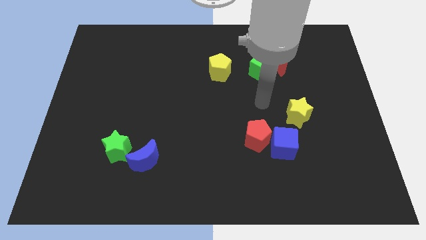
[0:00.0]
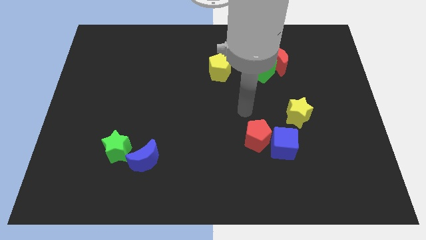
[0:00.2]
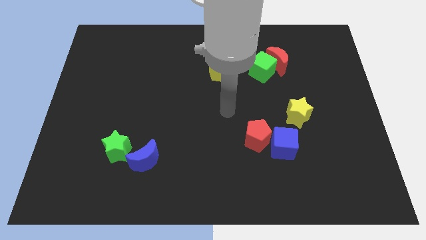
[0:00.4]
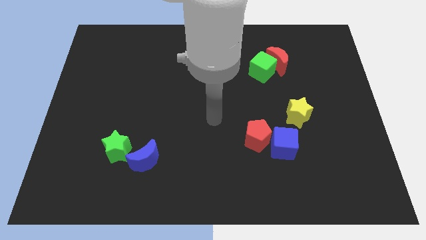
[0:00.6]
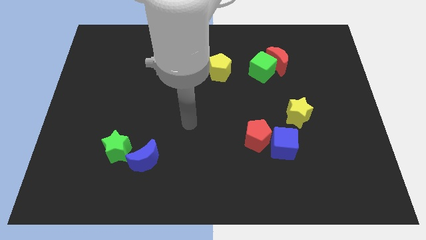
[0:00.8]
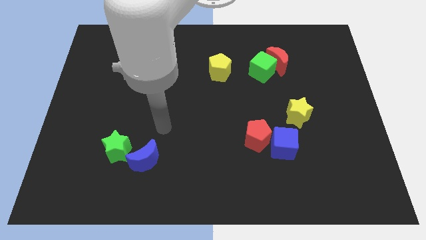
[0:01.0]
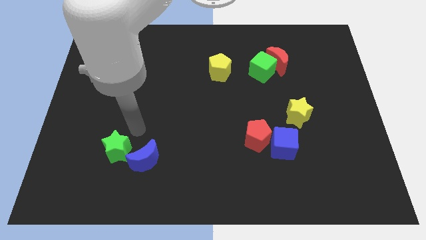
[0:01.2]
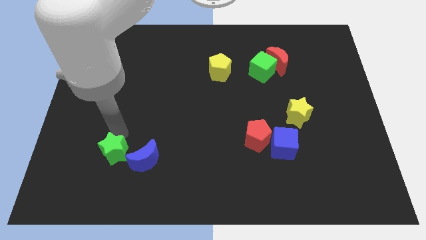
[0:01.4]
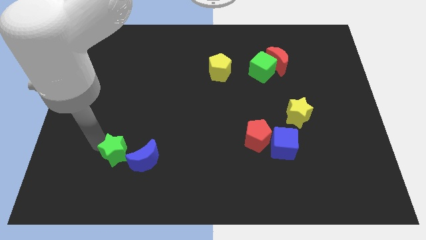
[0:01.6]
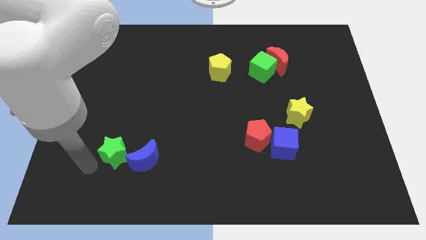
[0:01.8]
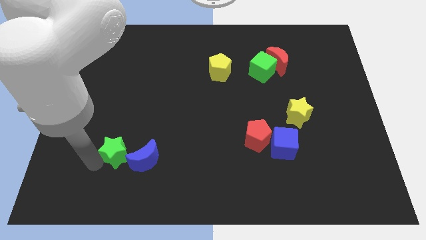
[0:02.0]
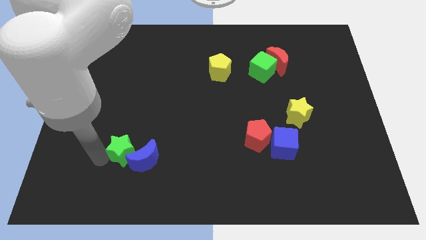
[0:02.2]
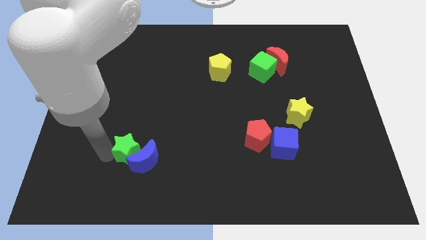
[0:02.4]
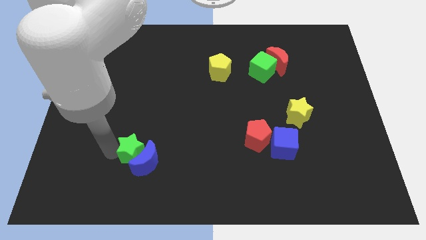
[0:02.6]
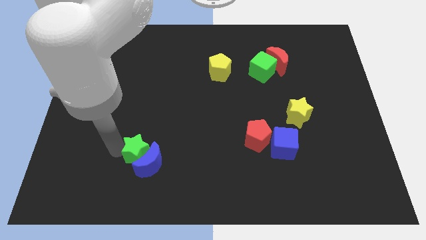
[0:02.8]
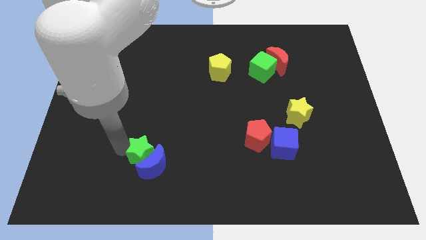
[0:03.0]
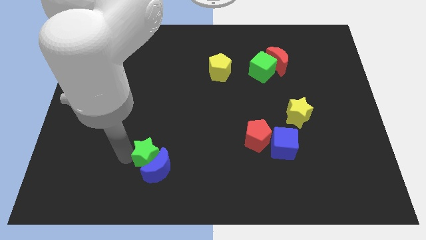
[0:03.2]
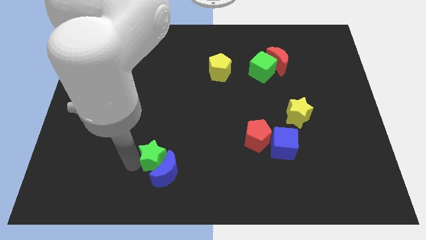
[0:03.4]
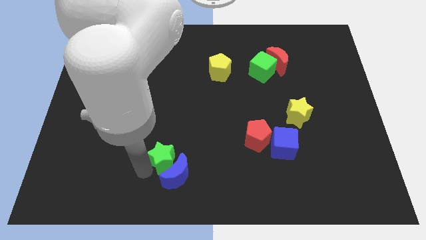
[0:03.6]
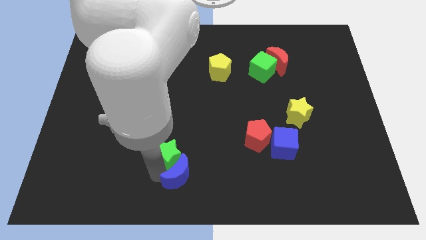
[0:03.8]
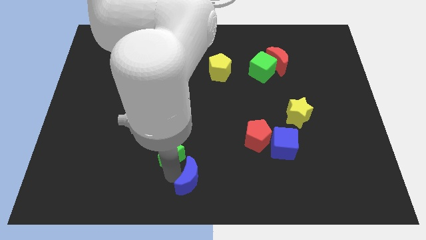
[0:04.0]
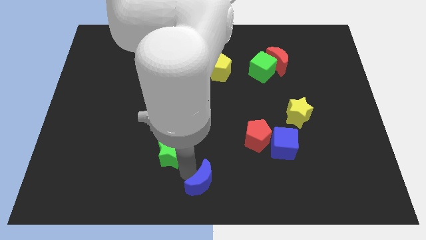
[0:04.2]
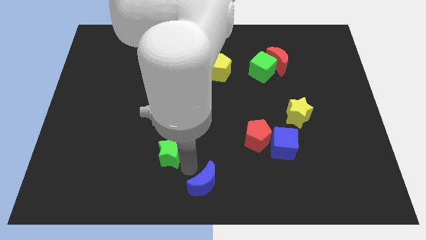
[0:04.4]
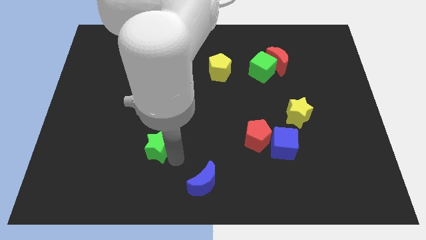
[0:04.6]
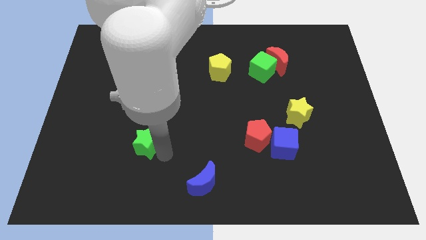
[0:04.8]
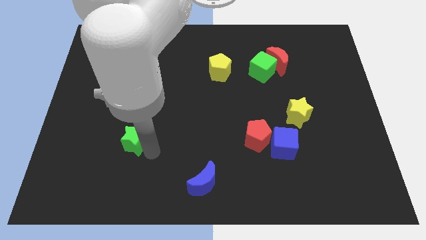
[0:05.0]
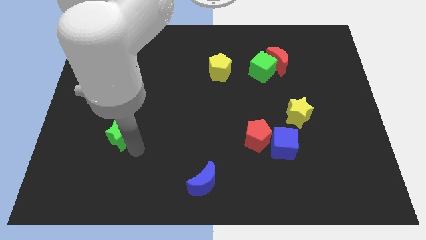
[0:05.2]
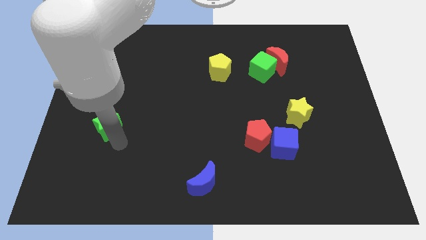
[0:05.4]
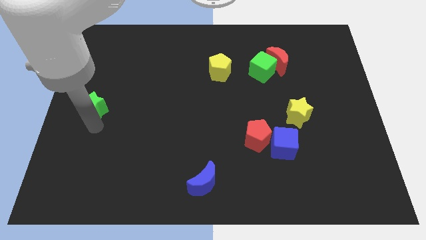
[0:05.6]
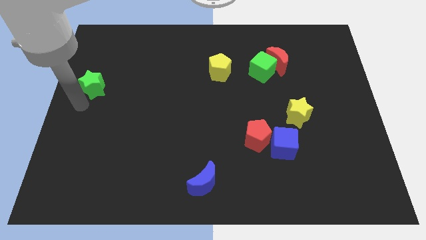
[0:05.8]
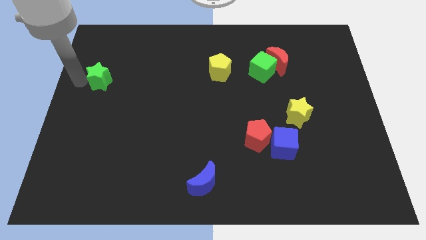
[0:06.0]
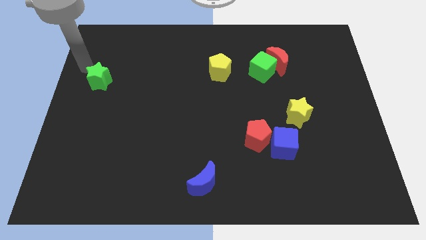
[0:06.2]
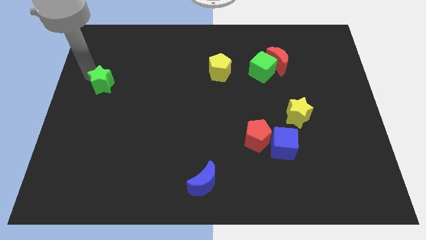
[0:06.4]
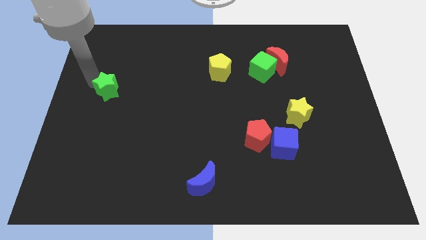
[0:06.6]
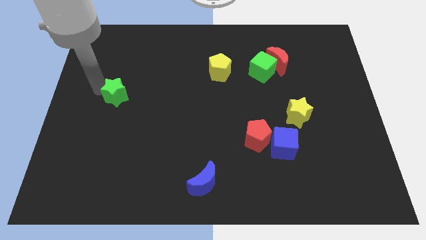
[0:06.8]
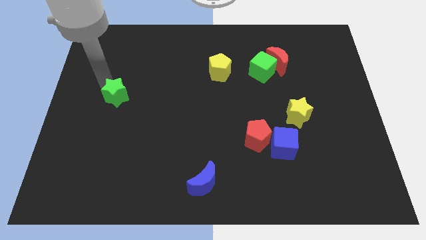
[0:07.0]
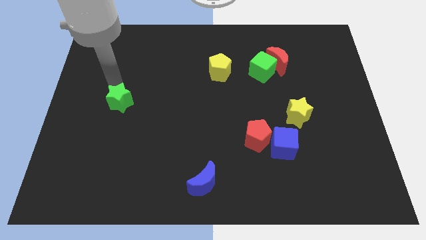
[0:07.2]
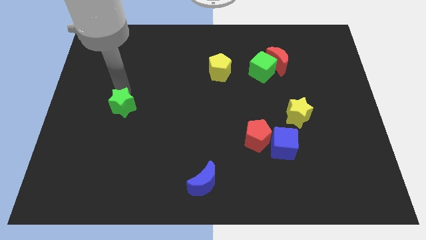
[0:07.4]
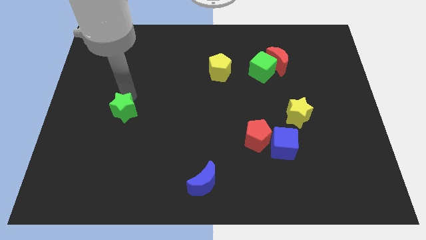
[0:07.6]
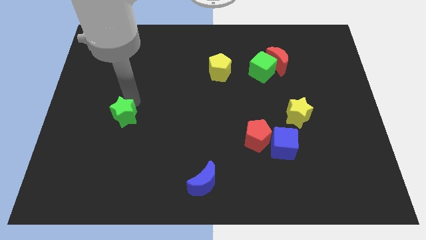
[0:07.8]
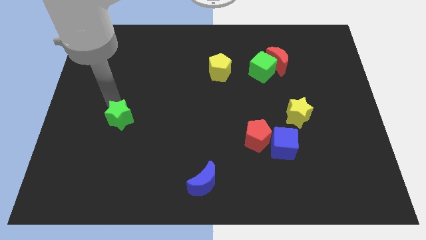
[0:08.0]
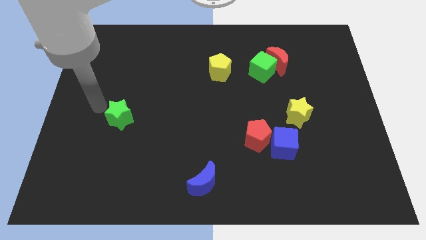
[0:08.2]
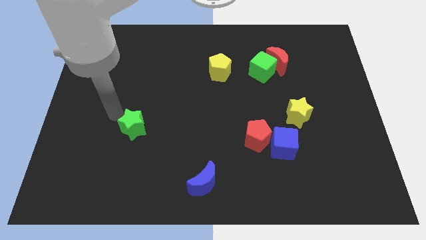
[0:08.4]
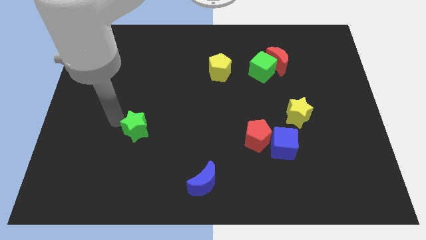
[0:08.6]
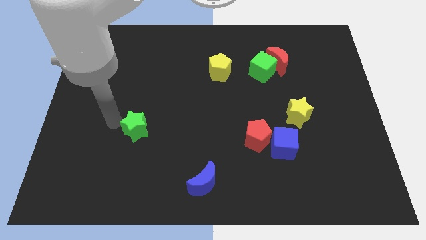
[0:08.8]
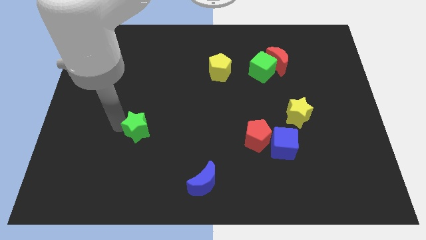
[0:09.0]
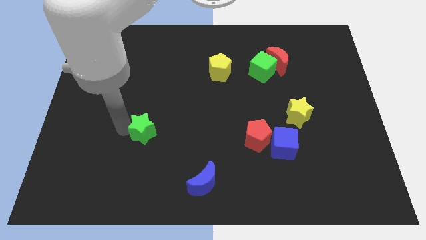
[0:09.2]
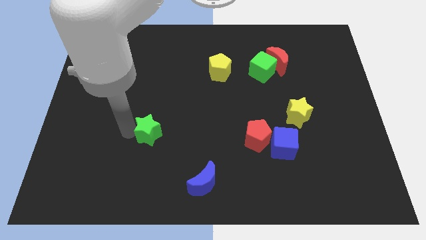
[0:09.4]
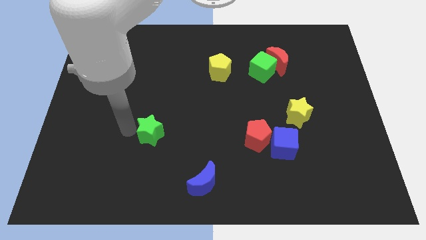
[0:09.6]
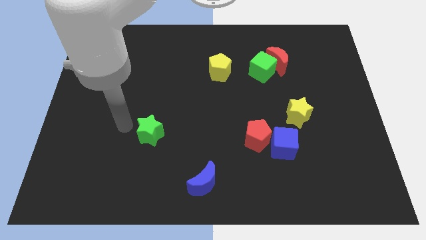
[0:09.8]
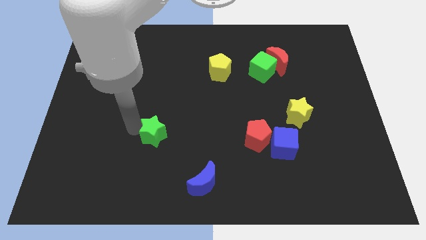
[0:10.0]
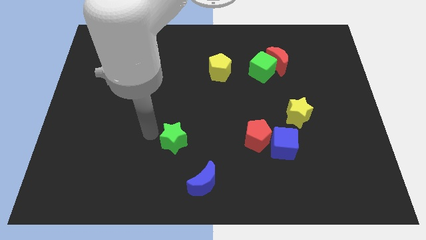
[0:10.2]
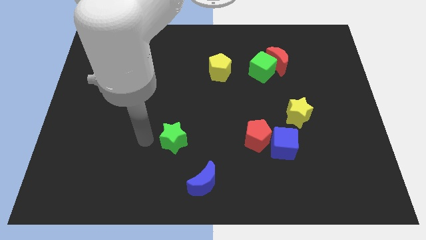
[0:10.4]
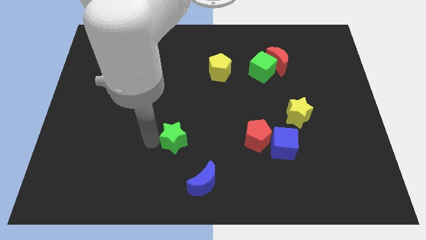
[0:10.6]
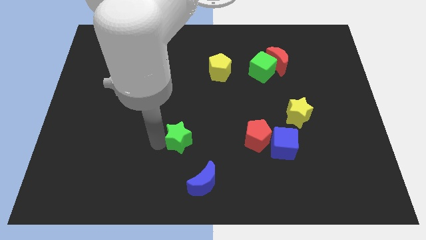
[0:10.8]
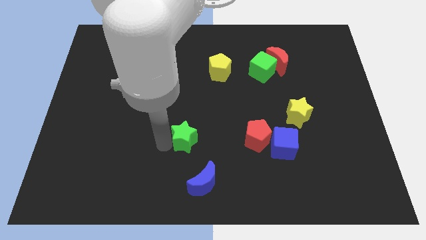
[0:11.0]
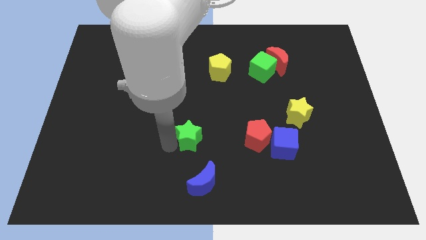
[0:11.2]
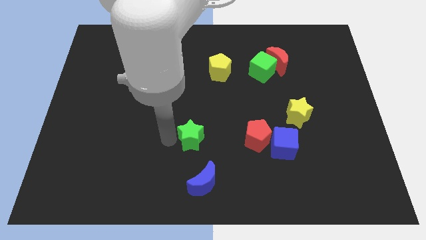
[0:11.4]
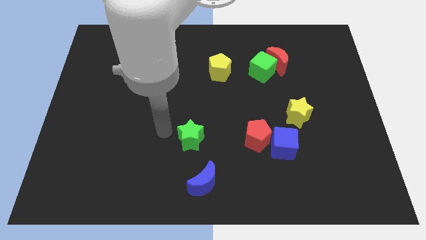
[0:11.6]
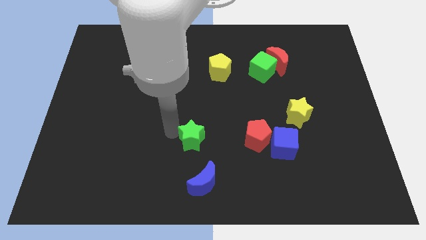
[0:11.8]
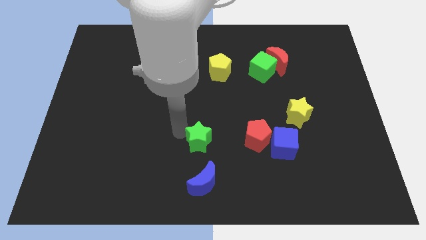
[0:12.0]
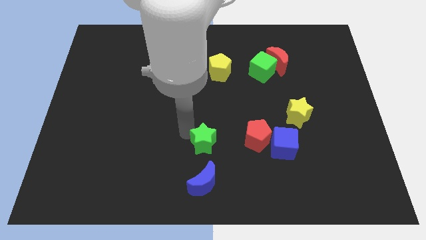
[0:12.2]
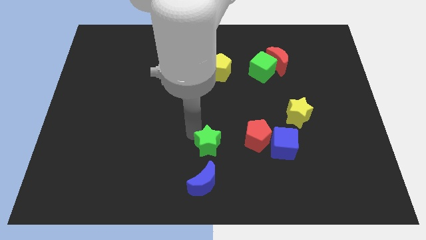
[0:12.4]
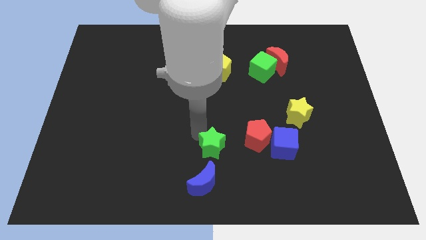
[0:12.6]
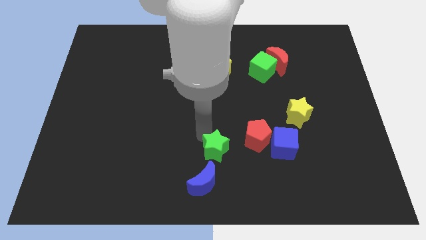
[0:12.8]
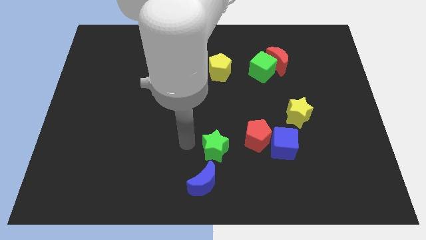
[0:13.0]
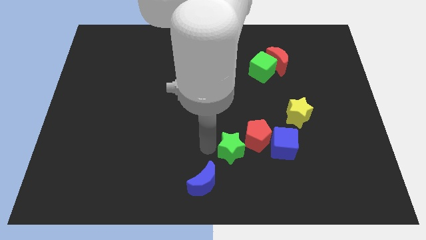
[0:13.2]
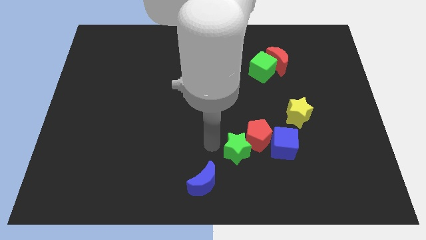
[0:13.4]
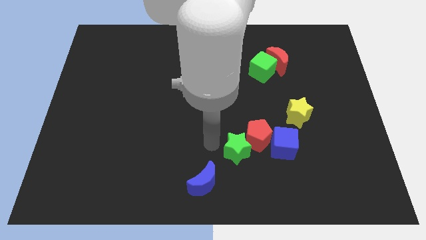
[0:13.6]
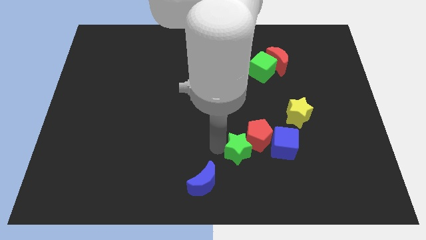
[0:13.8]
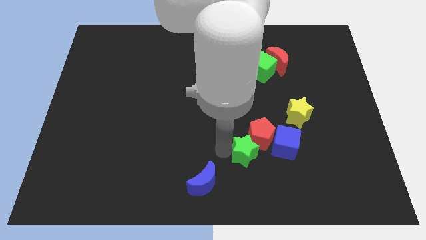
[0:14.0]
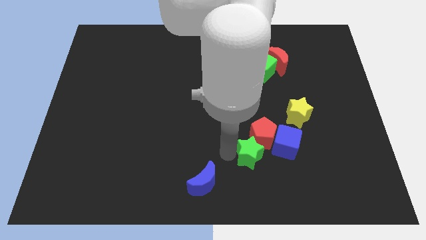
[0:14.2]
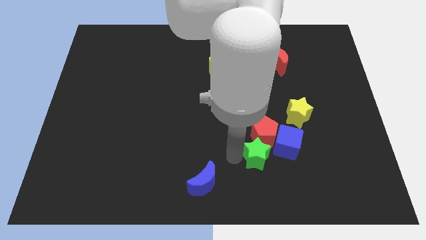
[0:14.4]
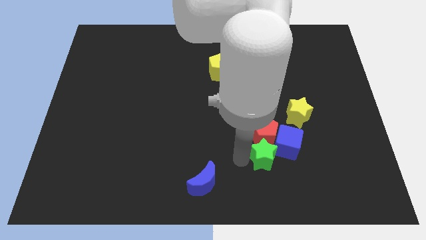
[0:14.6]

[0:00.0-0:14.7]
put the green star close to the blue cube
